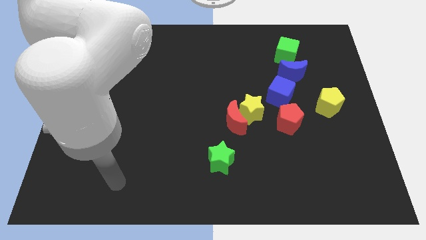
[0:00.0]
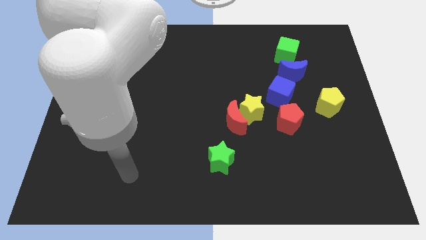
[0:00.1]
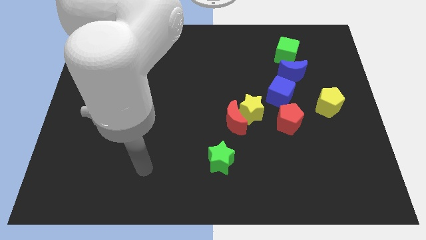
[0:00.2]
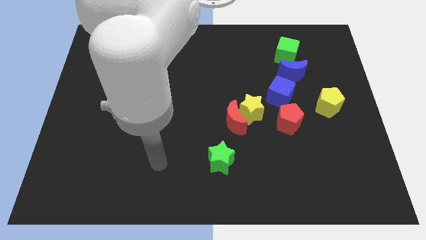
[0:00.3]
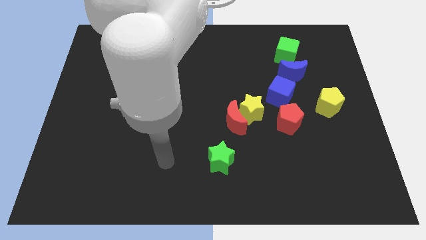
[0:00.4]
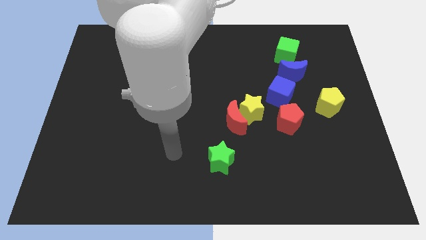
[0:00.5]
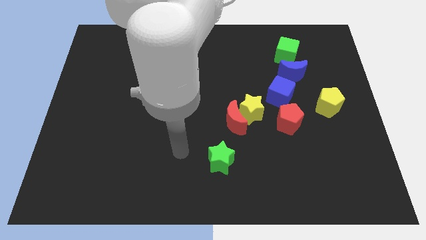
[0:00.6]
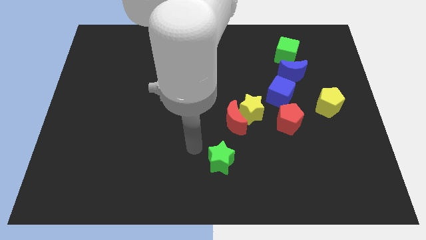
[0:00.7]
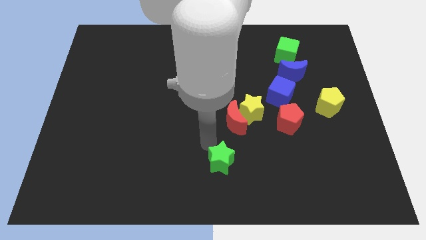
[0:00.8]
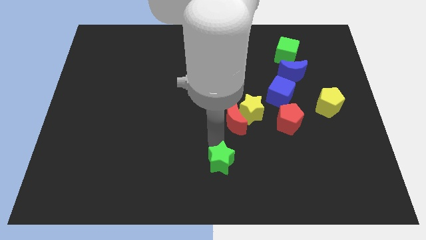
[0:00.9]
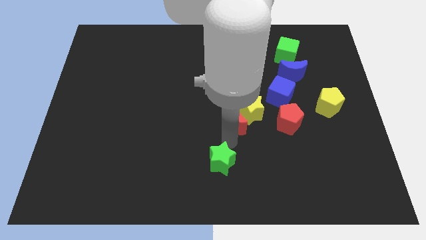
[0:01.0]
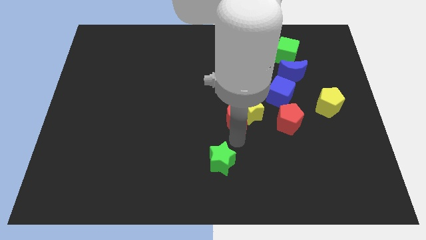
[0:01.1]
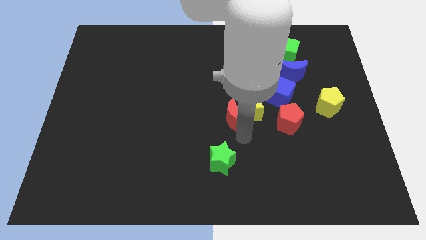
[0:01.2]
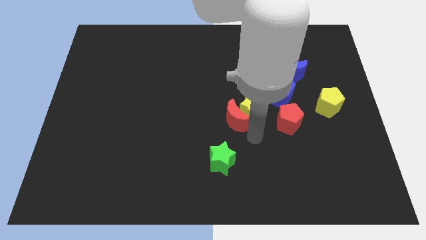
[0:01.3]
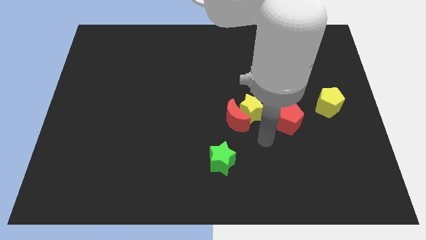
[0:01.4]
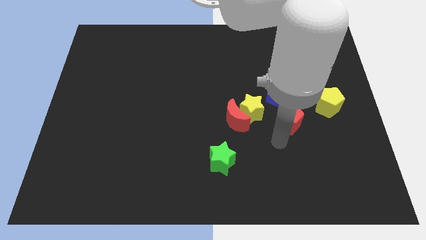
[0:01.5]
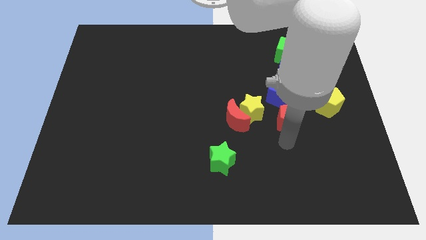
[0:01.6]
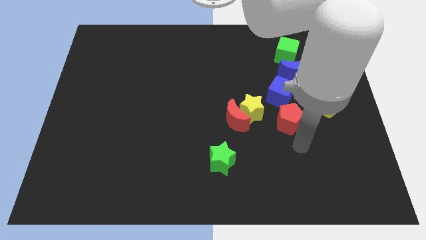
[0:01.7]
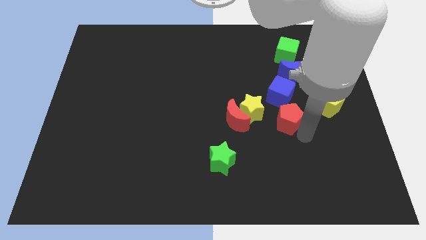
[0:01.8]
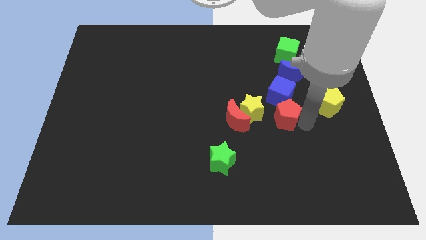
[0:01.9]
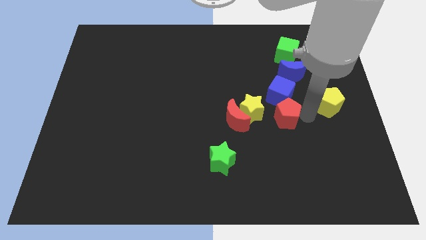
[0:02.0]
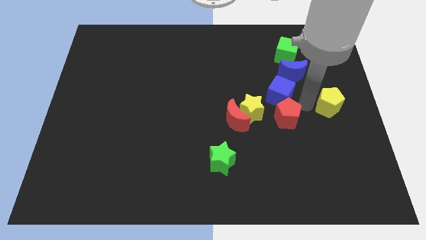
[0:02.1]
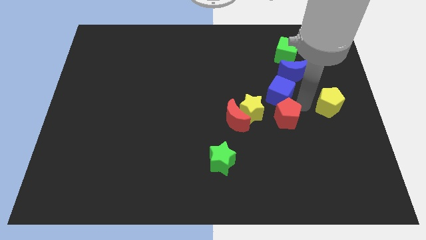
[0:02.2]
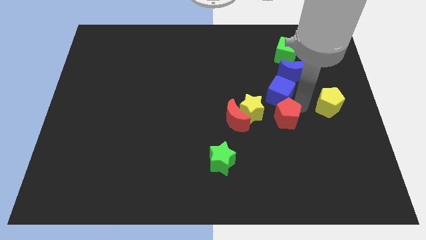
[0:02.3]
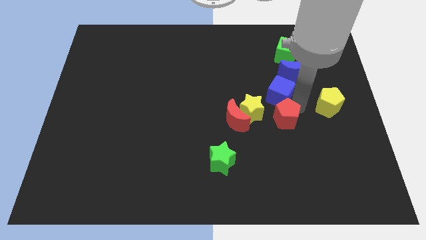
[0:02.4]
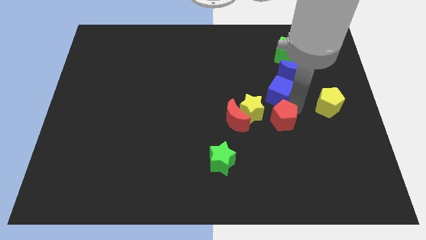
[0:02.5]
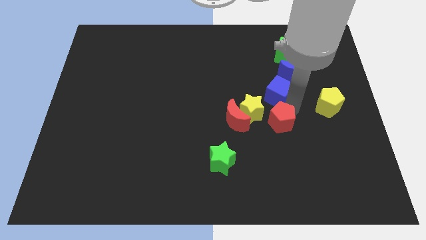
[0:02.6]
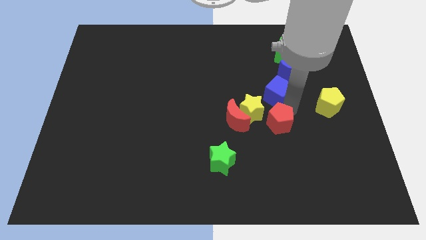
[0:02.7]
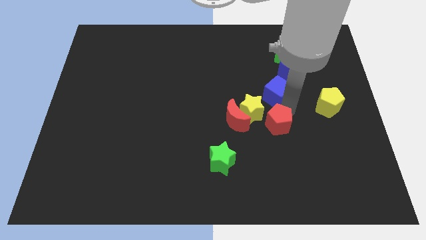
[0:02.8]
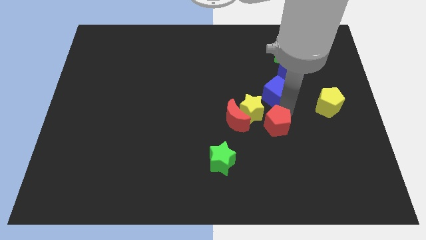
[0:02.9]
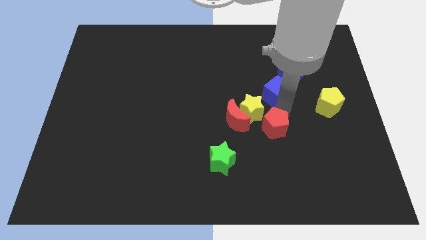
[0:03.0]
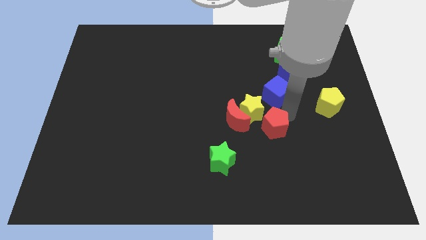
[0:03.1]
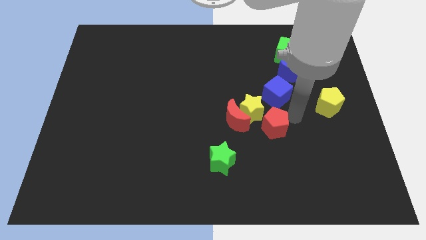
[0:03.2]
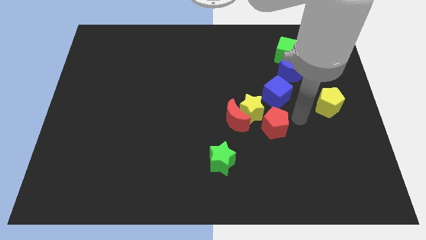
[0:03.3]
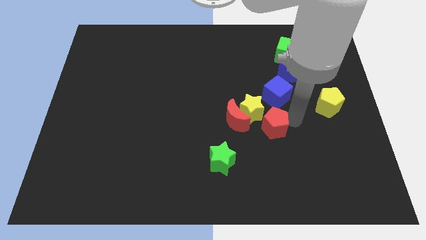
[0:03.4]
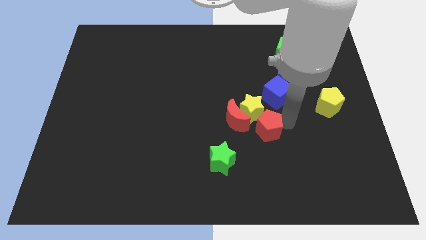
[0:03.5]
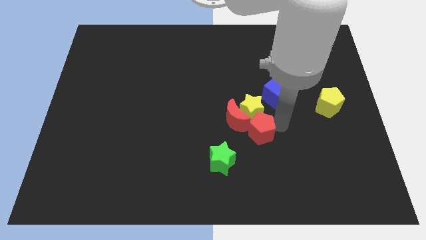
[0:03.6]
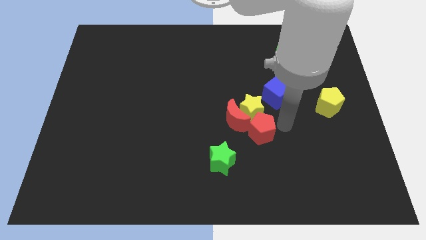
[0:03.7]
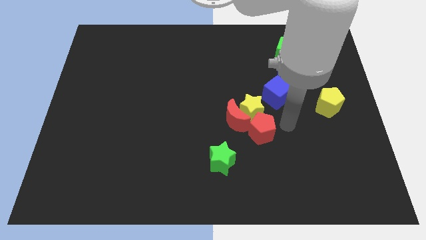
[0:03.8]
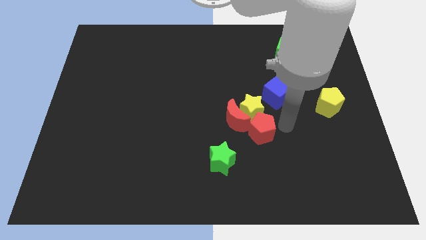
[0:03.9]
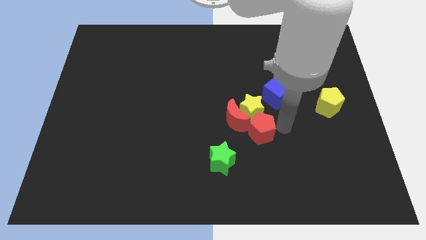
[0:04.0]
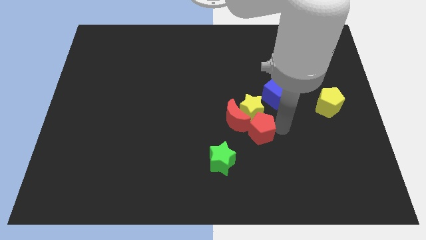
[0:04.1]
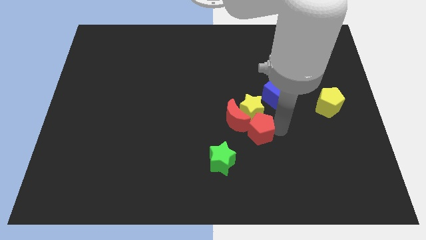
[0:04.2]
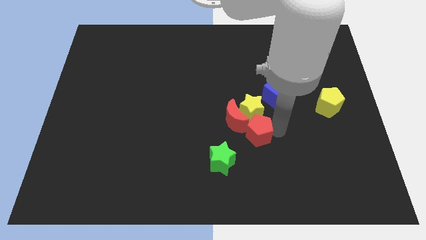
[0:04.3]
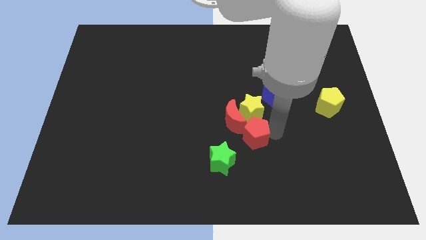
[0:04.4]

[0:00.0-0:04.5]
slide the red pentagon slightly left

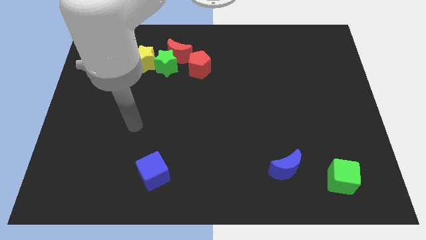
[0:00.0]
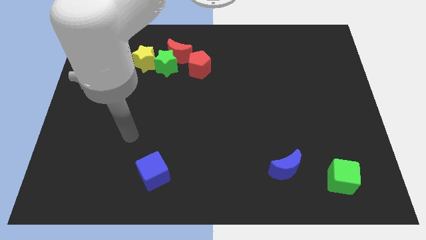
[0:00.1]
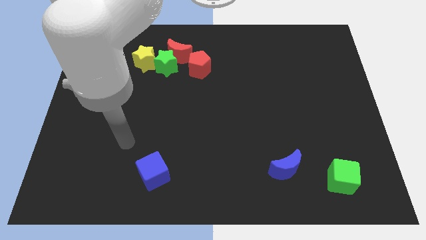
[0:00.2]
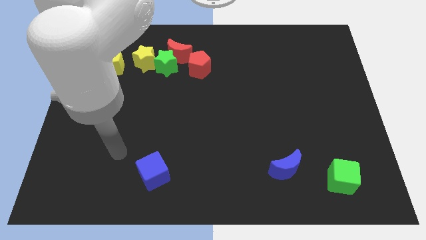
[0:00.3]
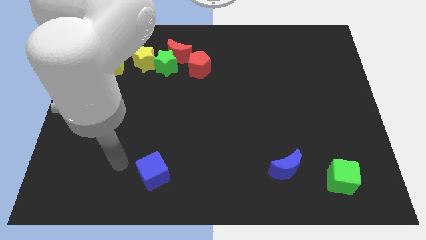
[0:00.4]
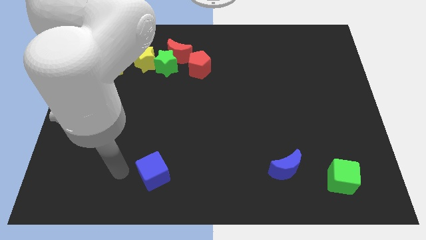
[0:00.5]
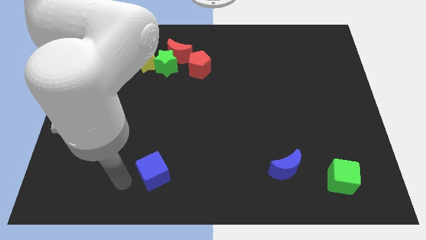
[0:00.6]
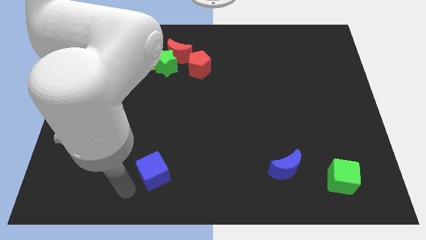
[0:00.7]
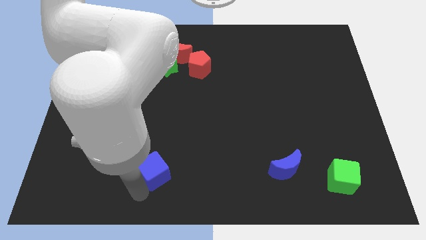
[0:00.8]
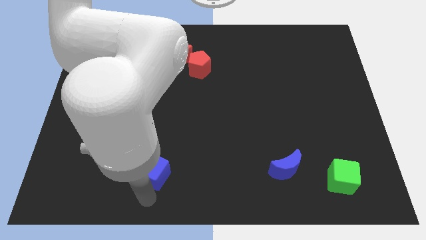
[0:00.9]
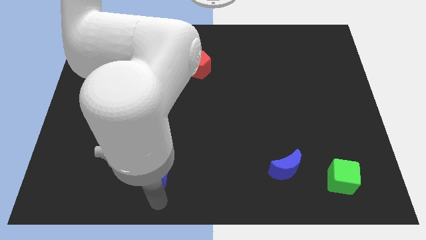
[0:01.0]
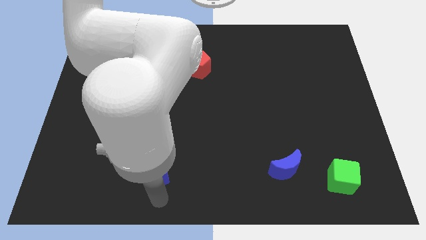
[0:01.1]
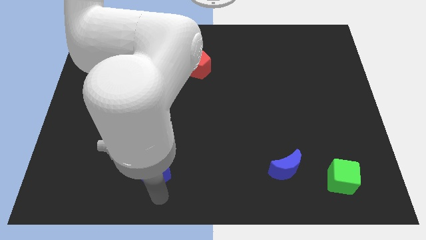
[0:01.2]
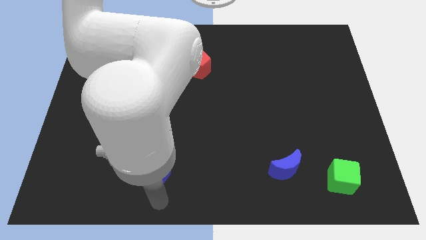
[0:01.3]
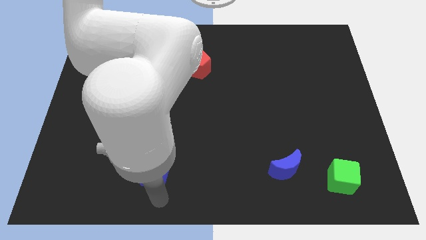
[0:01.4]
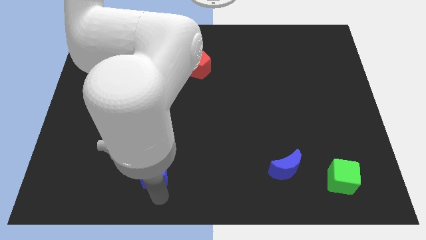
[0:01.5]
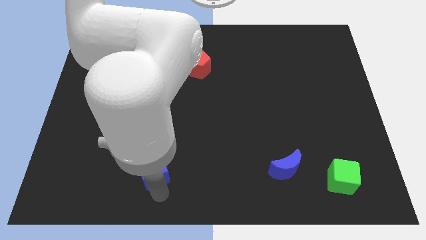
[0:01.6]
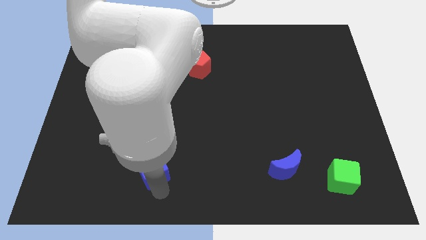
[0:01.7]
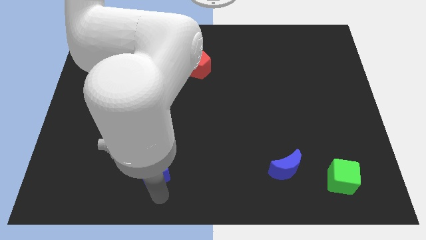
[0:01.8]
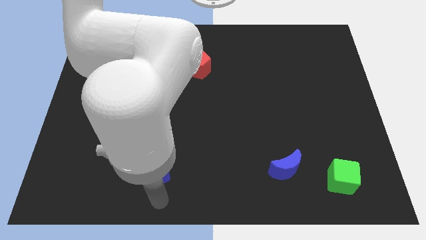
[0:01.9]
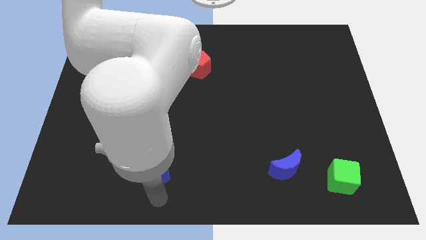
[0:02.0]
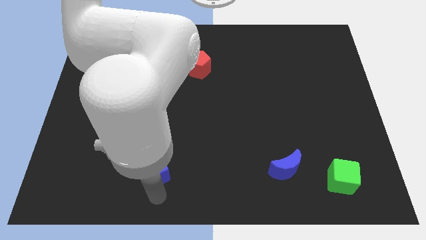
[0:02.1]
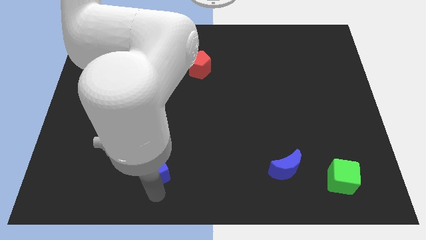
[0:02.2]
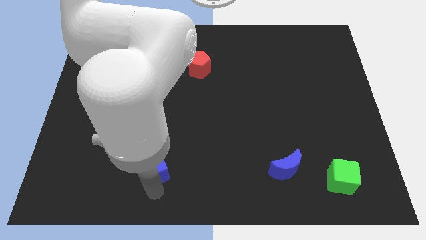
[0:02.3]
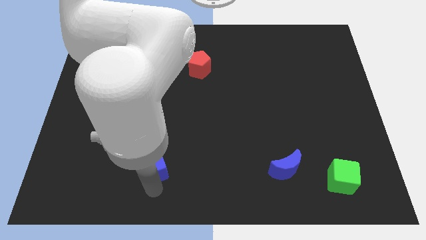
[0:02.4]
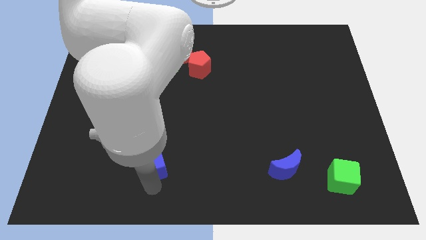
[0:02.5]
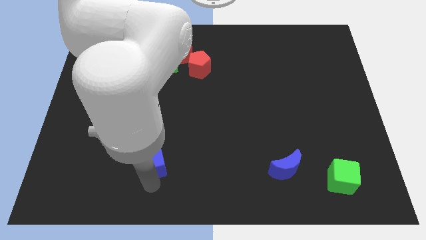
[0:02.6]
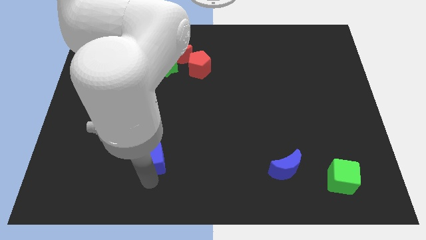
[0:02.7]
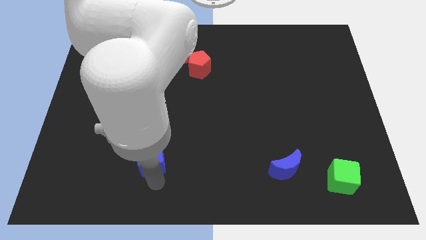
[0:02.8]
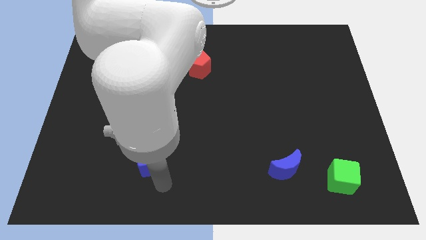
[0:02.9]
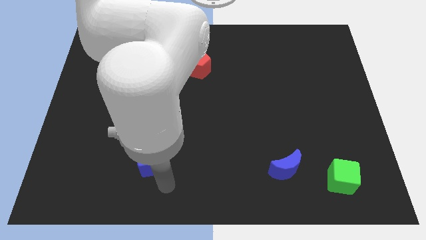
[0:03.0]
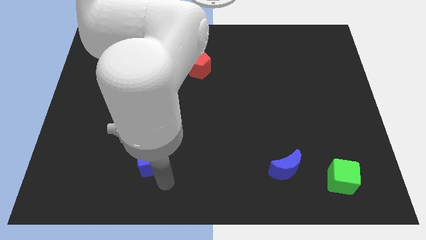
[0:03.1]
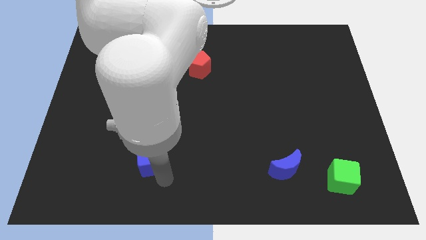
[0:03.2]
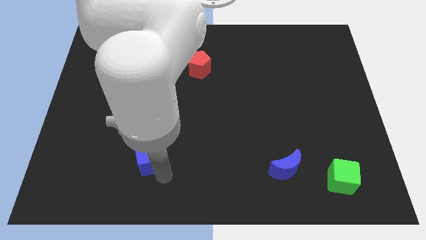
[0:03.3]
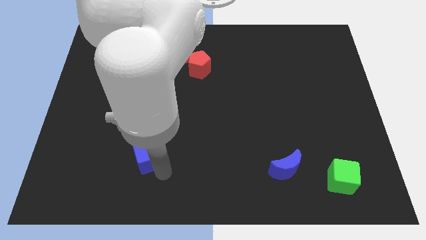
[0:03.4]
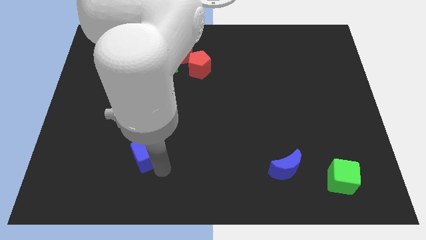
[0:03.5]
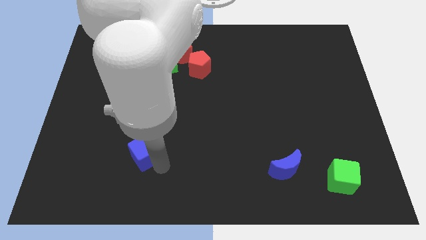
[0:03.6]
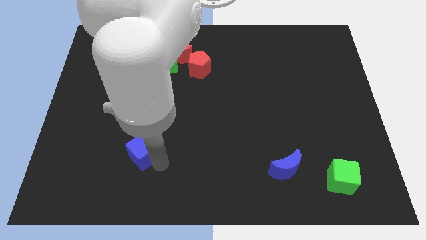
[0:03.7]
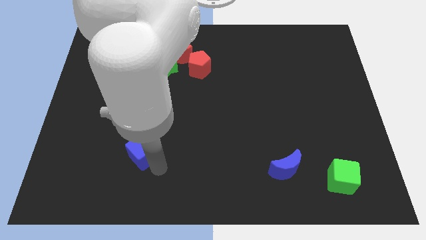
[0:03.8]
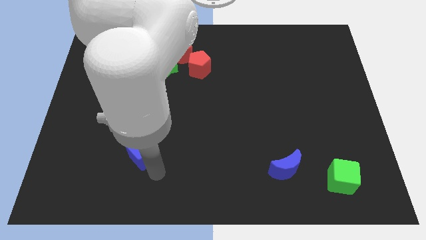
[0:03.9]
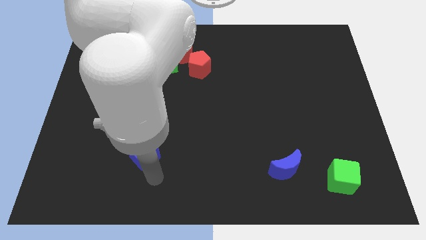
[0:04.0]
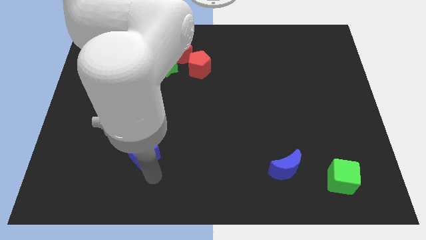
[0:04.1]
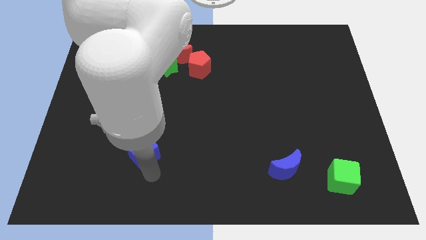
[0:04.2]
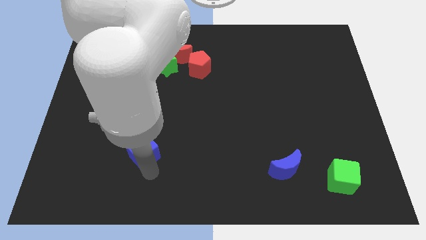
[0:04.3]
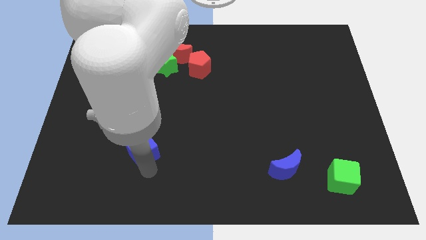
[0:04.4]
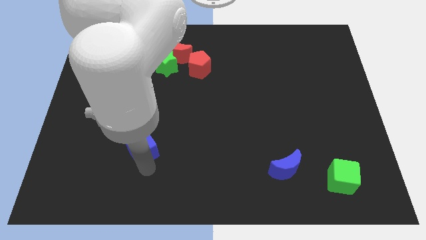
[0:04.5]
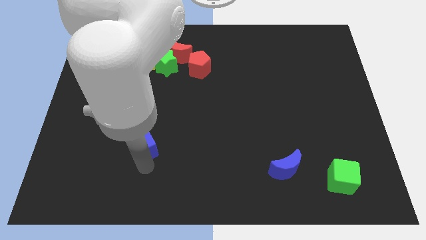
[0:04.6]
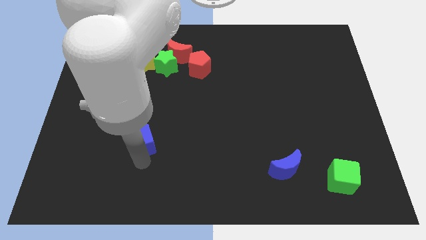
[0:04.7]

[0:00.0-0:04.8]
slightly push the blue cube up and left
